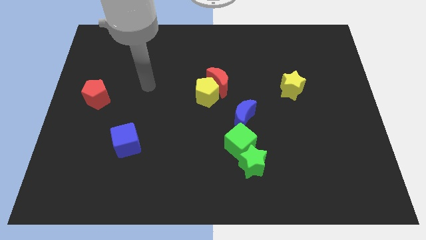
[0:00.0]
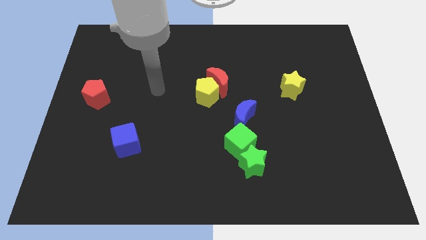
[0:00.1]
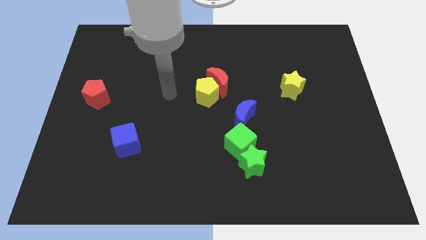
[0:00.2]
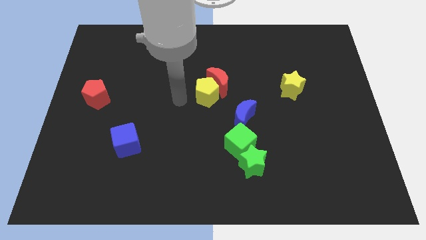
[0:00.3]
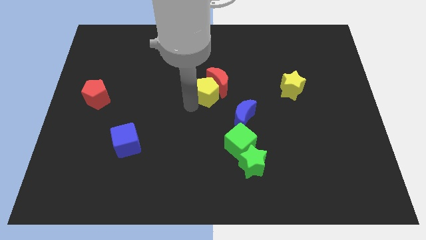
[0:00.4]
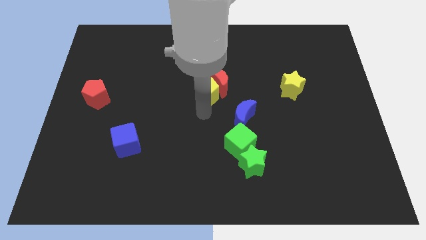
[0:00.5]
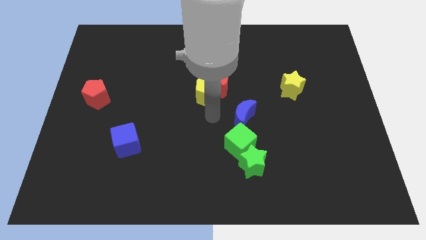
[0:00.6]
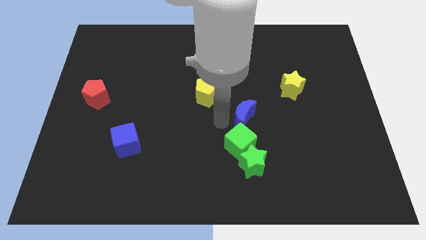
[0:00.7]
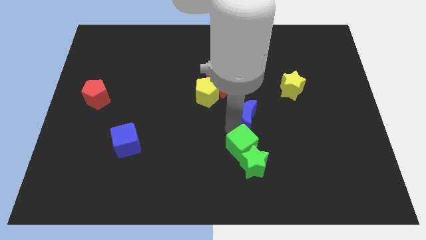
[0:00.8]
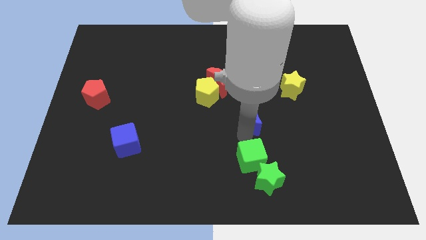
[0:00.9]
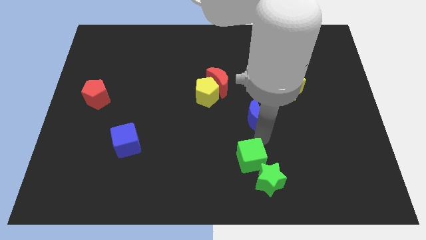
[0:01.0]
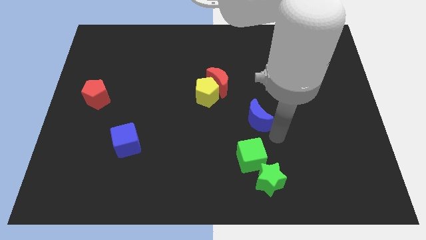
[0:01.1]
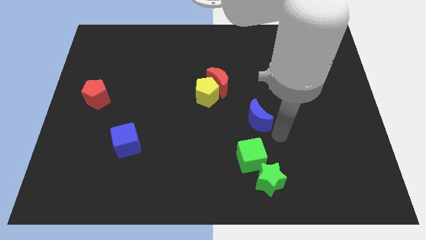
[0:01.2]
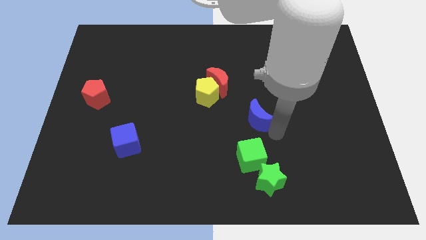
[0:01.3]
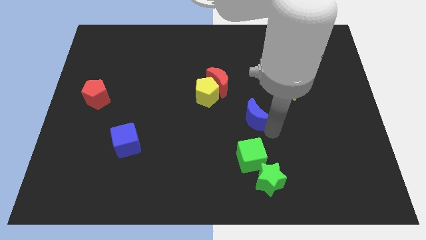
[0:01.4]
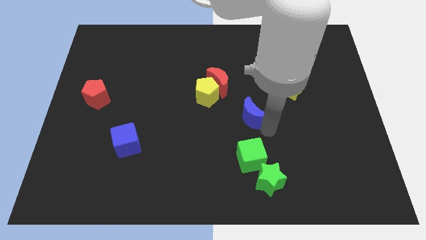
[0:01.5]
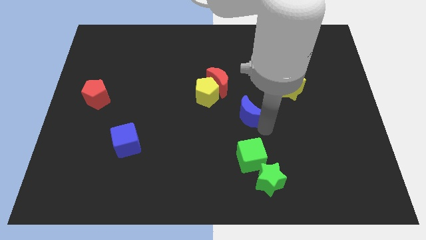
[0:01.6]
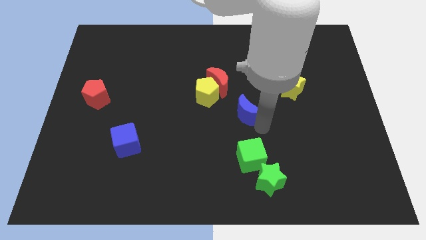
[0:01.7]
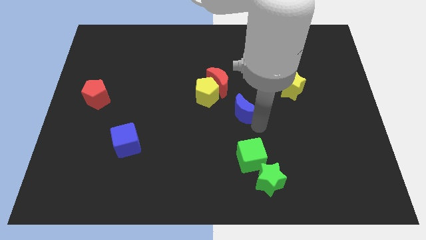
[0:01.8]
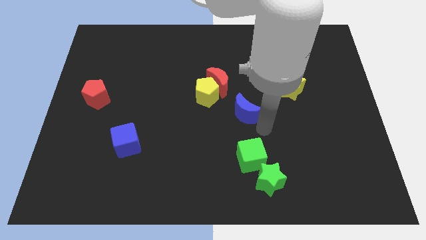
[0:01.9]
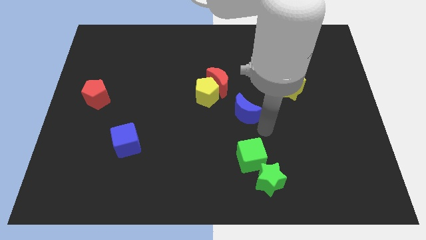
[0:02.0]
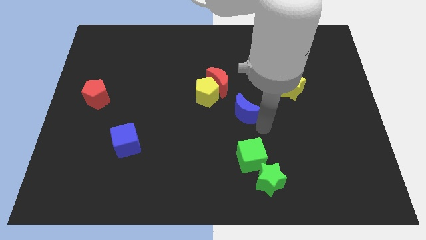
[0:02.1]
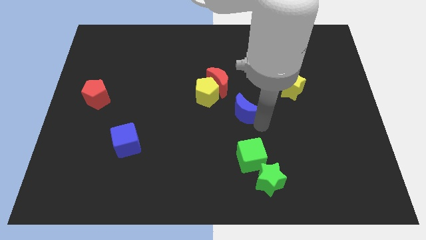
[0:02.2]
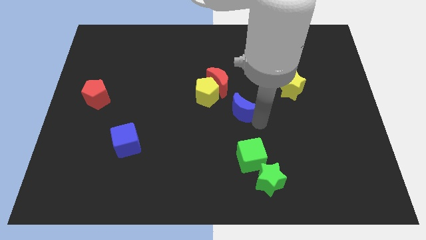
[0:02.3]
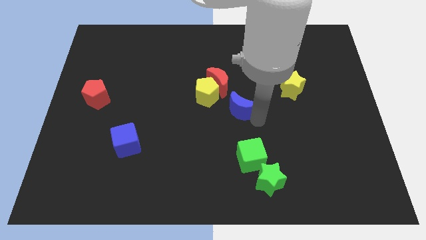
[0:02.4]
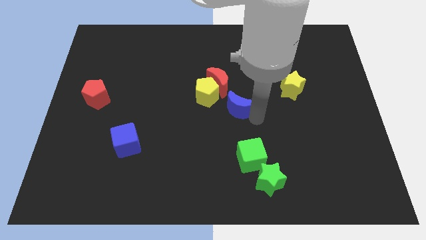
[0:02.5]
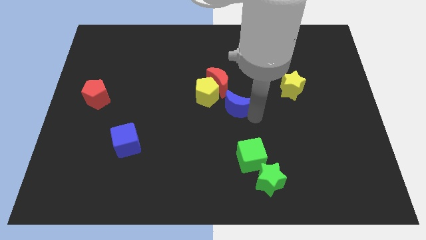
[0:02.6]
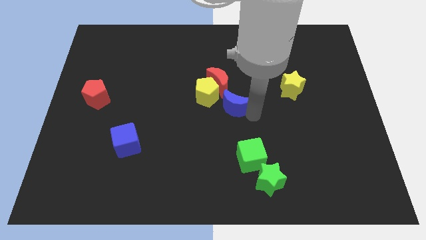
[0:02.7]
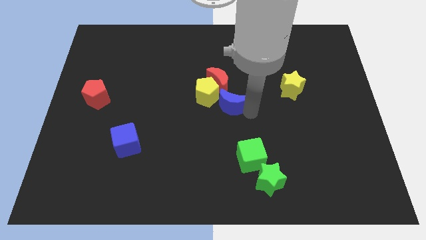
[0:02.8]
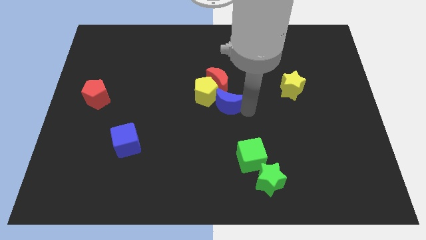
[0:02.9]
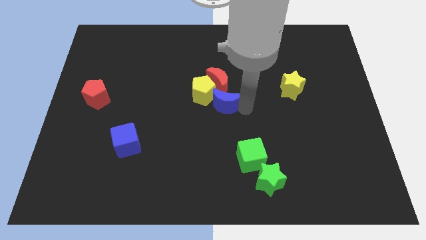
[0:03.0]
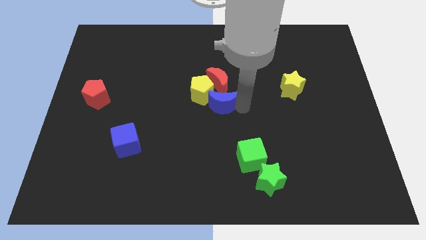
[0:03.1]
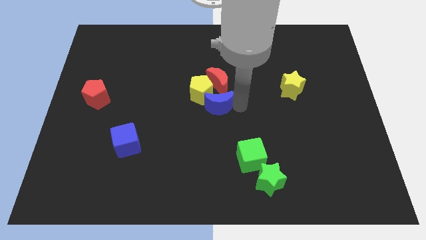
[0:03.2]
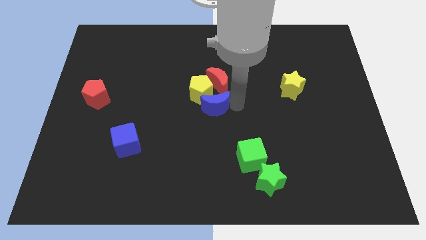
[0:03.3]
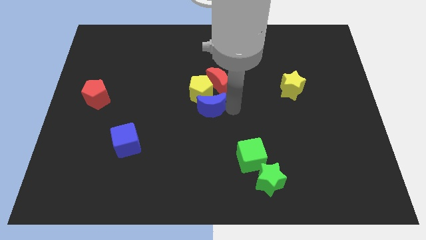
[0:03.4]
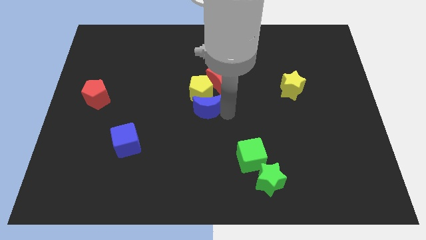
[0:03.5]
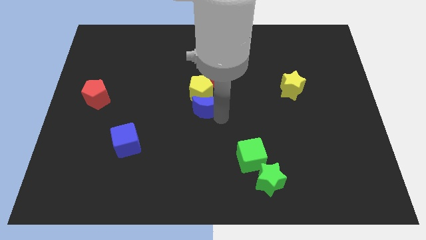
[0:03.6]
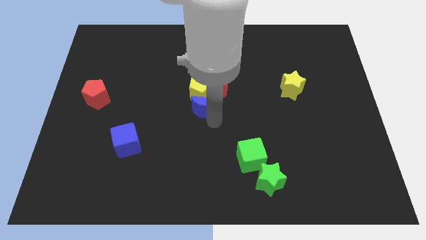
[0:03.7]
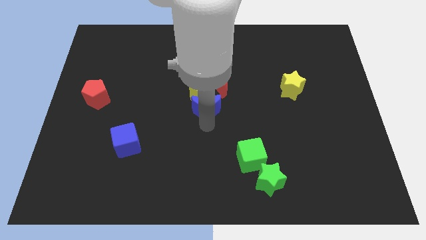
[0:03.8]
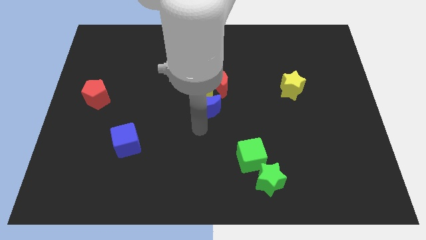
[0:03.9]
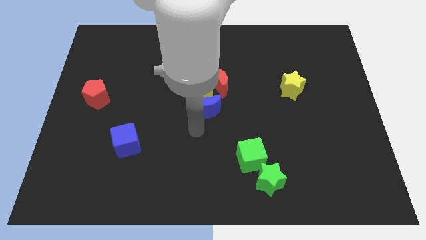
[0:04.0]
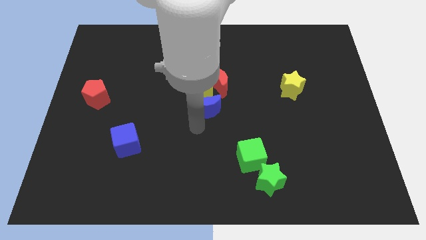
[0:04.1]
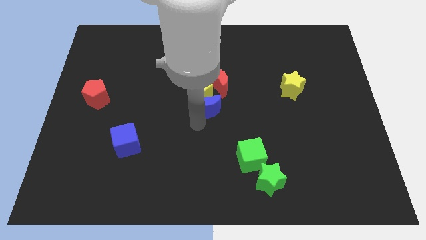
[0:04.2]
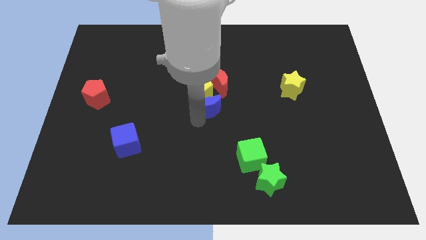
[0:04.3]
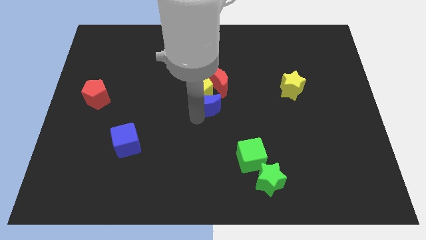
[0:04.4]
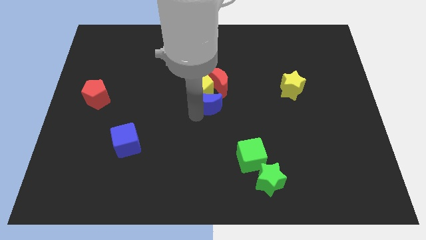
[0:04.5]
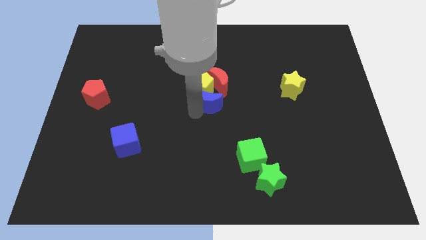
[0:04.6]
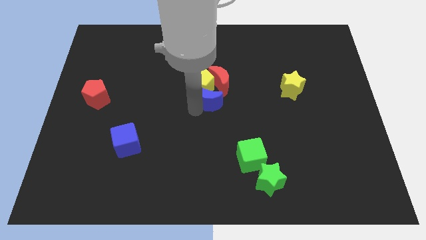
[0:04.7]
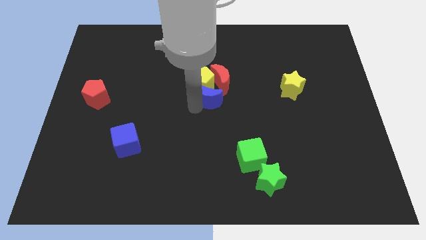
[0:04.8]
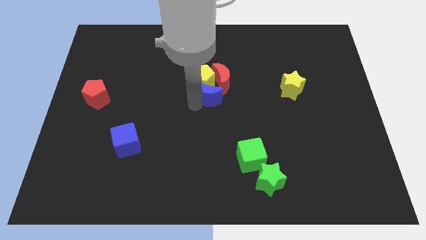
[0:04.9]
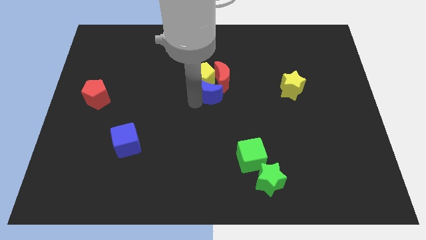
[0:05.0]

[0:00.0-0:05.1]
slide the blue moon towards the red moon

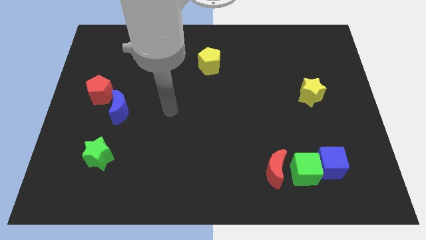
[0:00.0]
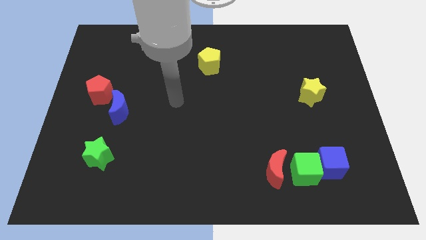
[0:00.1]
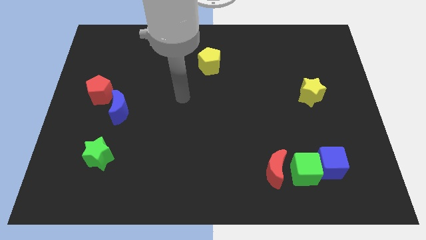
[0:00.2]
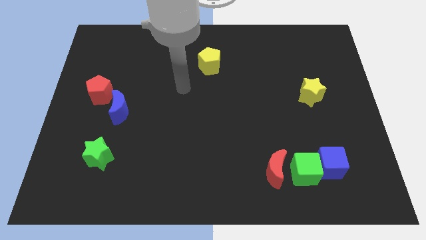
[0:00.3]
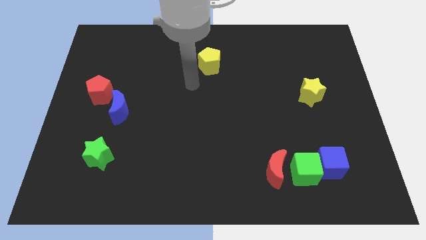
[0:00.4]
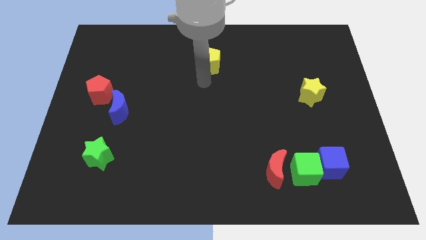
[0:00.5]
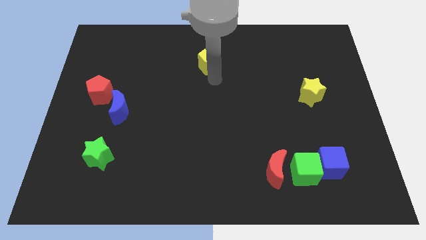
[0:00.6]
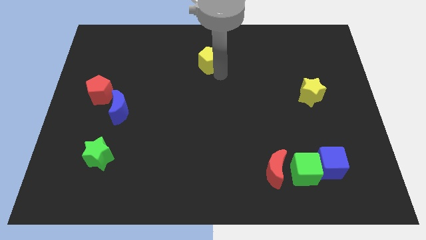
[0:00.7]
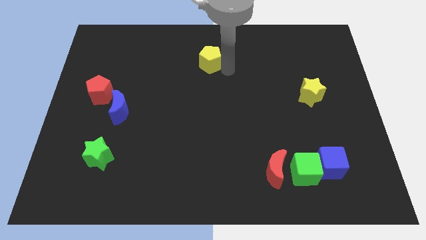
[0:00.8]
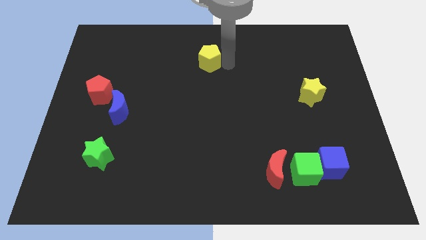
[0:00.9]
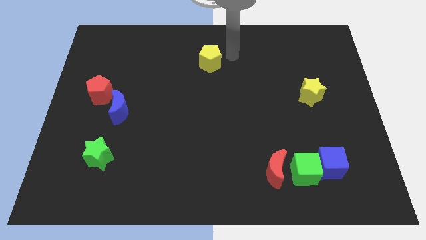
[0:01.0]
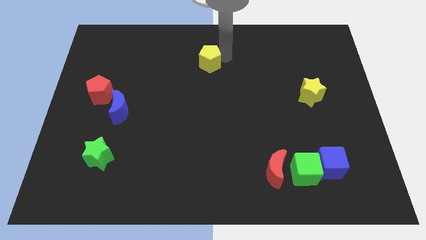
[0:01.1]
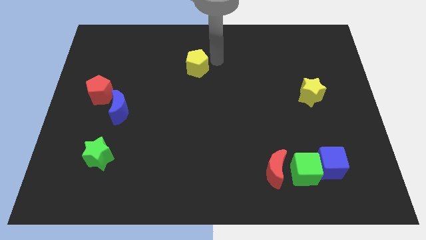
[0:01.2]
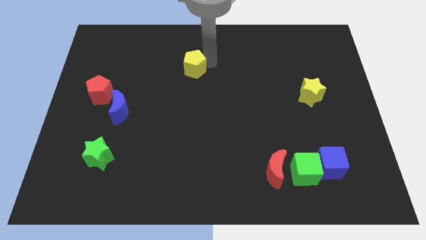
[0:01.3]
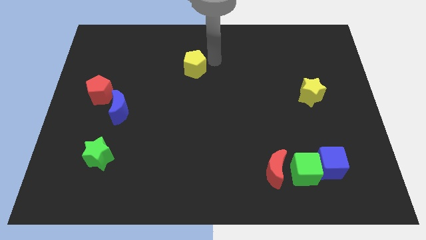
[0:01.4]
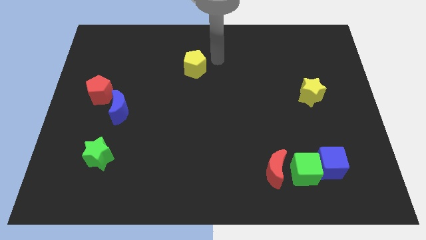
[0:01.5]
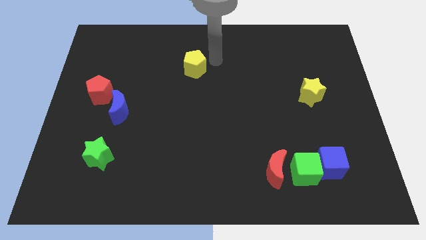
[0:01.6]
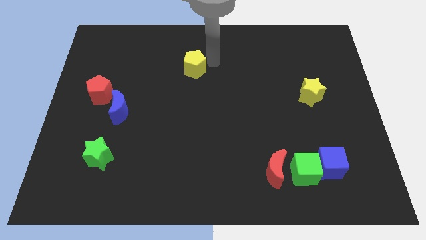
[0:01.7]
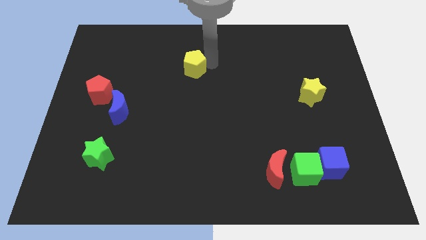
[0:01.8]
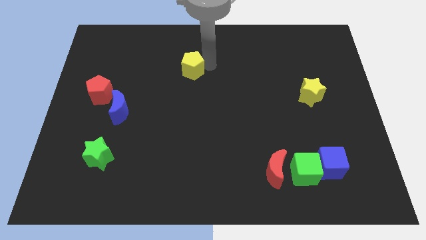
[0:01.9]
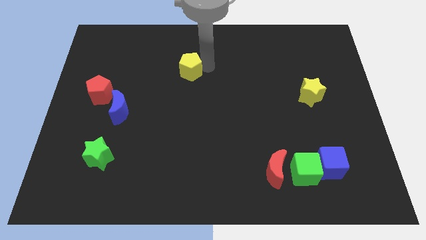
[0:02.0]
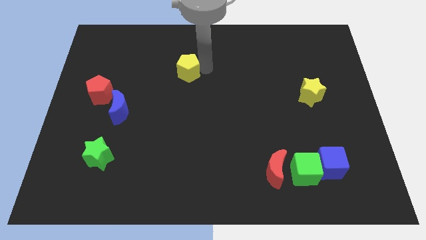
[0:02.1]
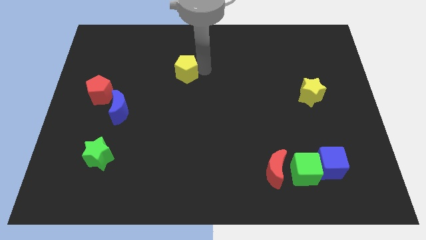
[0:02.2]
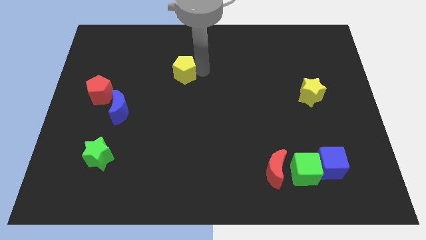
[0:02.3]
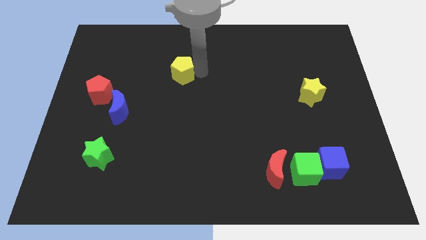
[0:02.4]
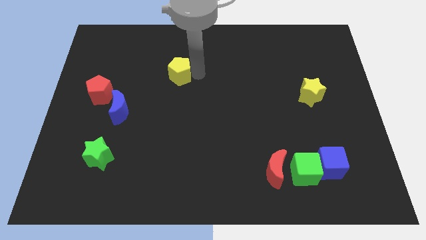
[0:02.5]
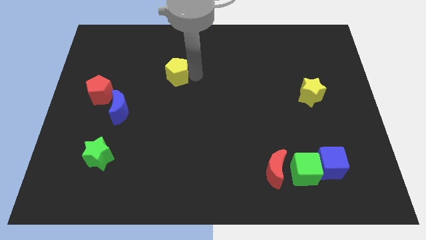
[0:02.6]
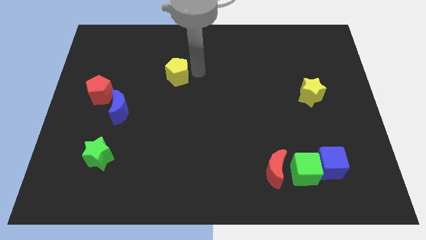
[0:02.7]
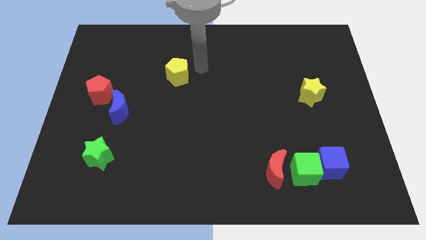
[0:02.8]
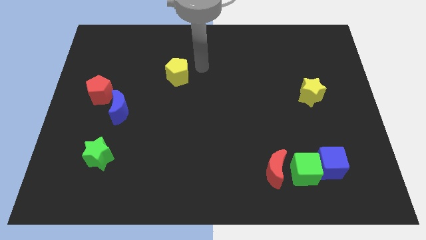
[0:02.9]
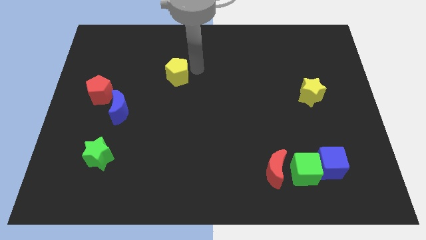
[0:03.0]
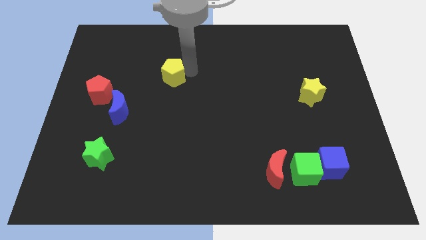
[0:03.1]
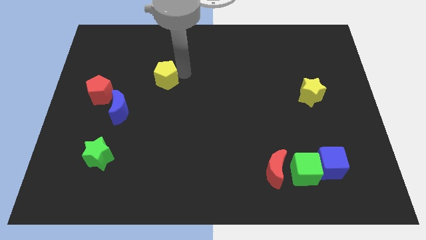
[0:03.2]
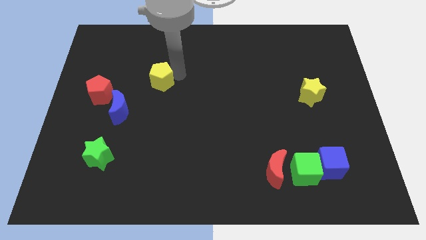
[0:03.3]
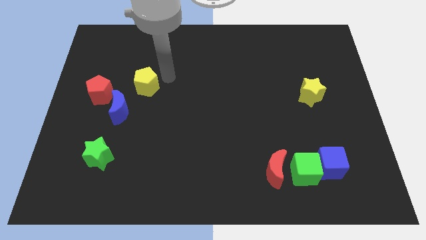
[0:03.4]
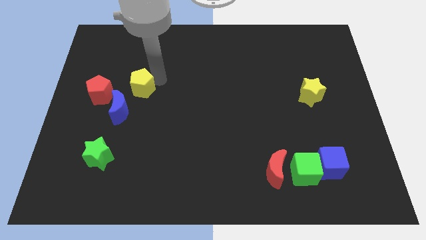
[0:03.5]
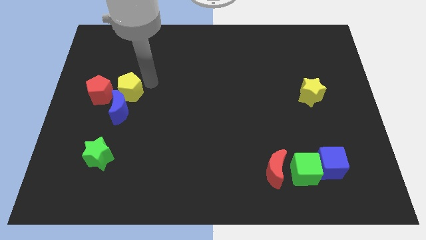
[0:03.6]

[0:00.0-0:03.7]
move the yellow pentagon next to the blue moon
